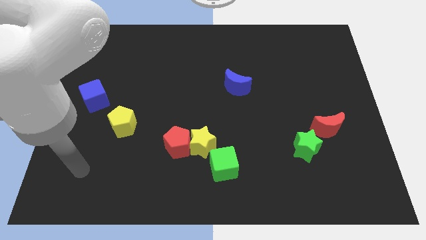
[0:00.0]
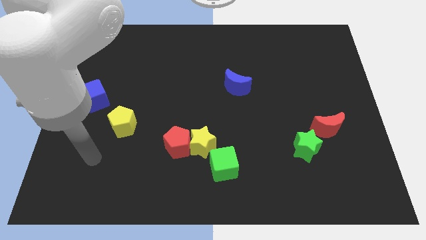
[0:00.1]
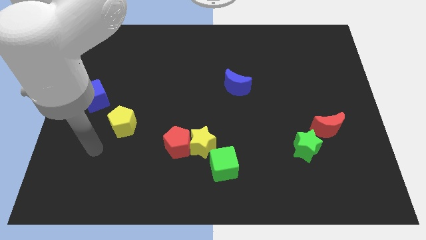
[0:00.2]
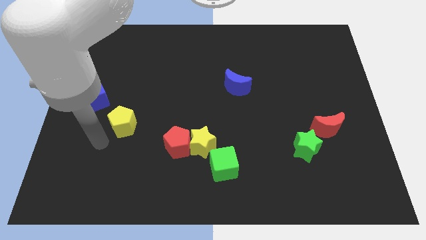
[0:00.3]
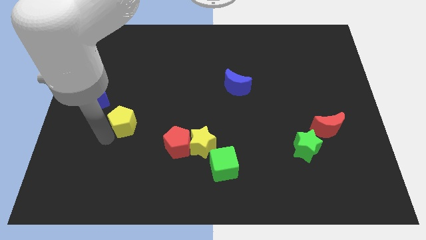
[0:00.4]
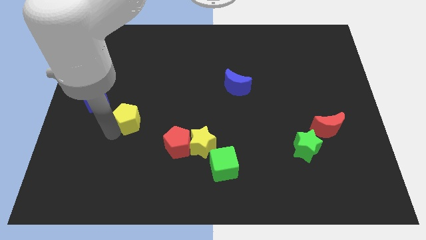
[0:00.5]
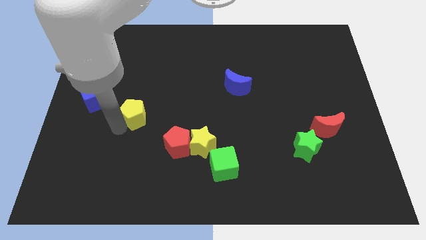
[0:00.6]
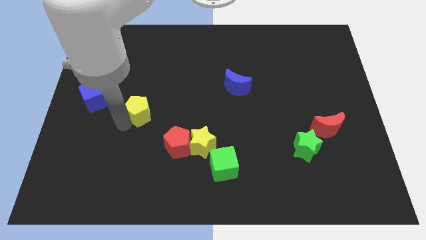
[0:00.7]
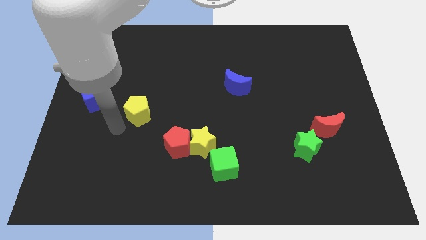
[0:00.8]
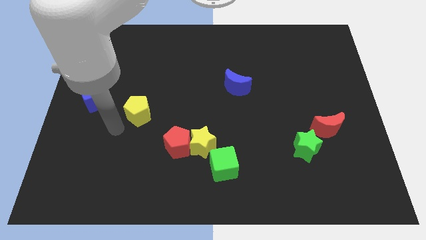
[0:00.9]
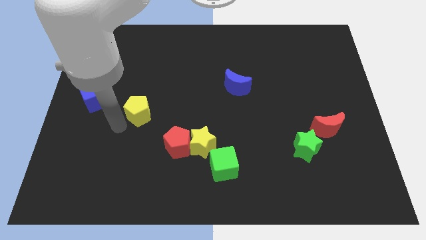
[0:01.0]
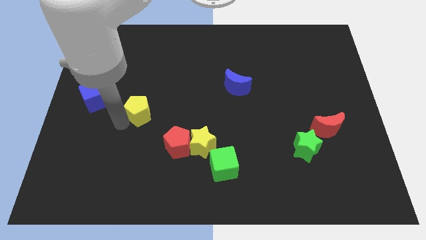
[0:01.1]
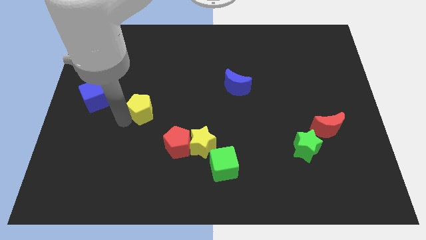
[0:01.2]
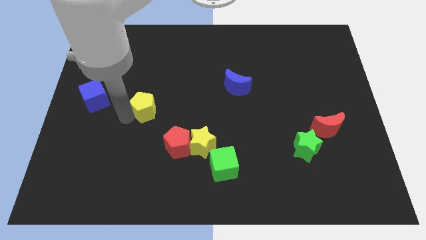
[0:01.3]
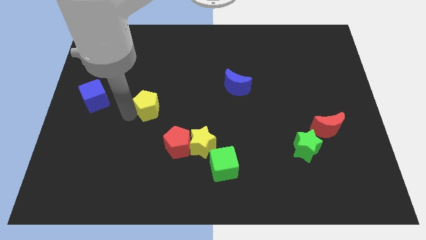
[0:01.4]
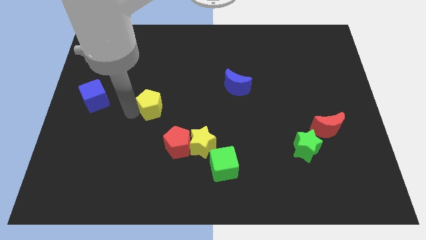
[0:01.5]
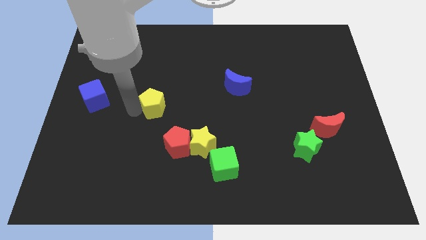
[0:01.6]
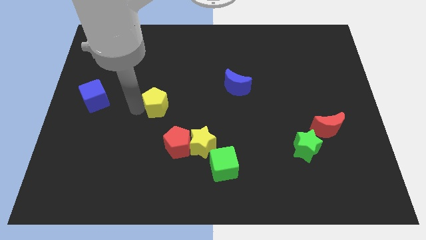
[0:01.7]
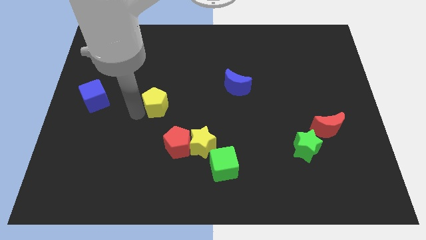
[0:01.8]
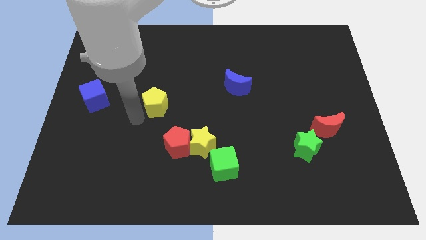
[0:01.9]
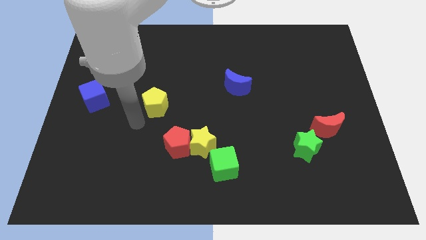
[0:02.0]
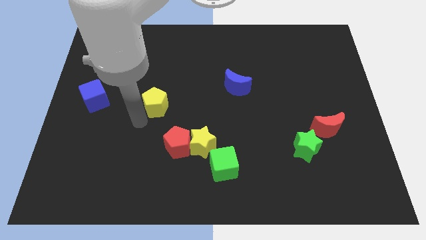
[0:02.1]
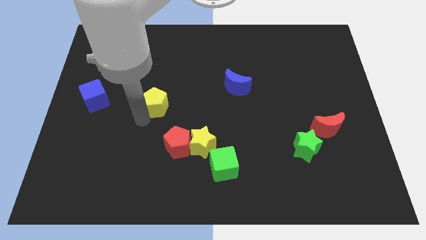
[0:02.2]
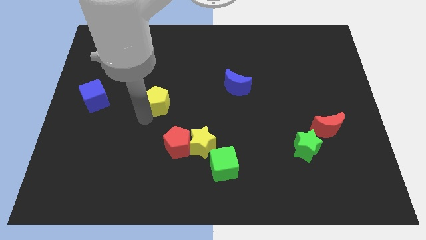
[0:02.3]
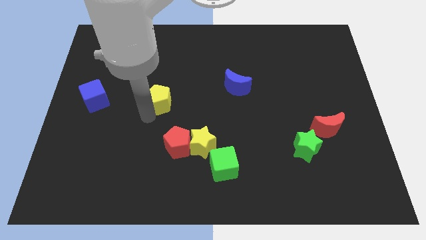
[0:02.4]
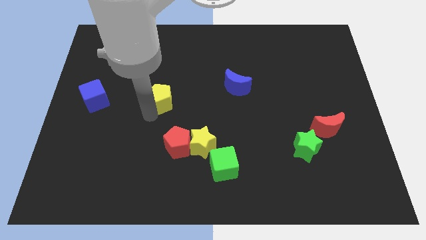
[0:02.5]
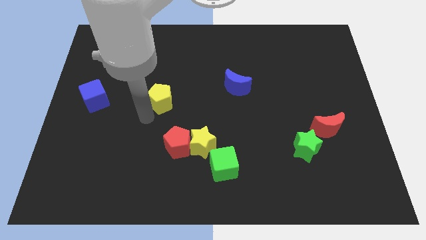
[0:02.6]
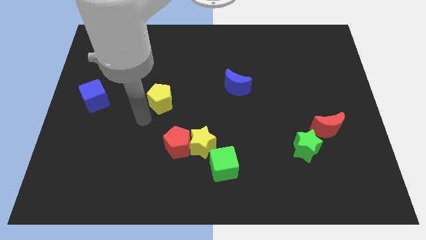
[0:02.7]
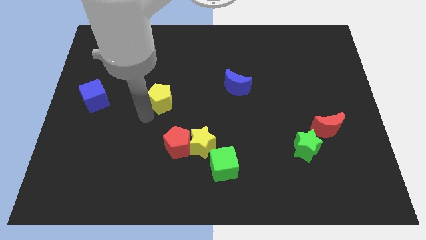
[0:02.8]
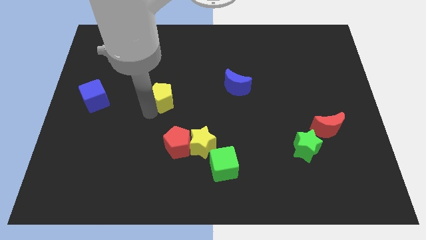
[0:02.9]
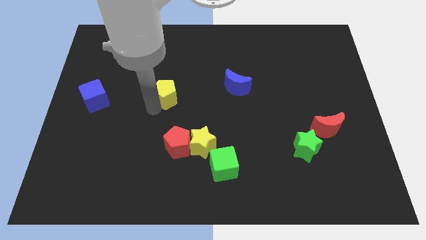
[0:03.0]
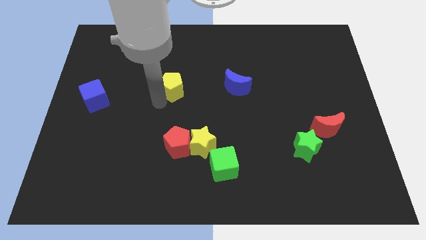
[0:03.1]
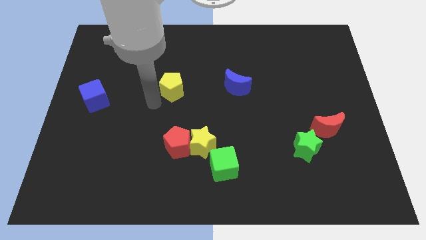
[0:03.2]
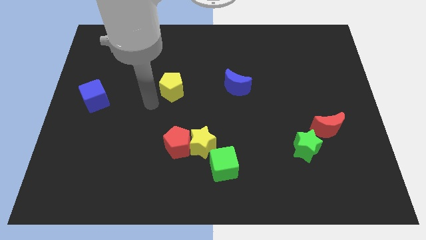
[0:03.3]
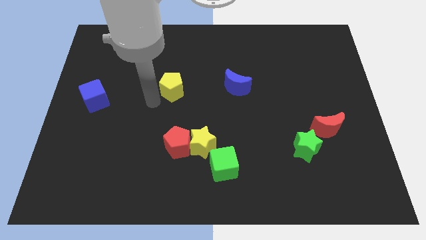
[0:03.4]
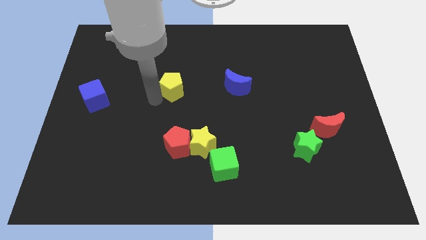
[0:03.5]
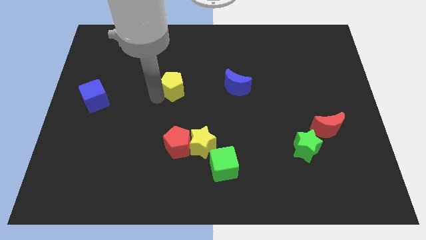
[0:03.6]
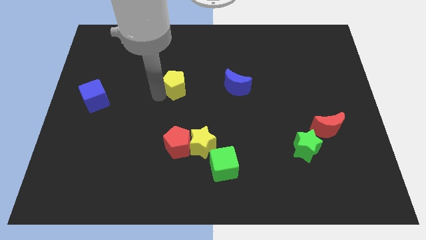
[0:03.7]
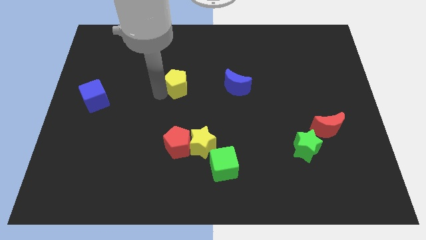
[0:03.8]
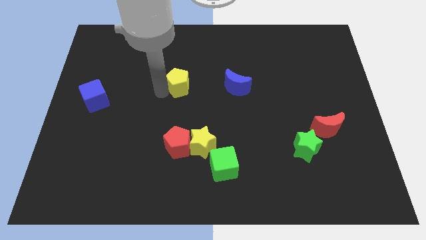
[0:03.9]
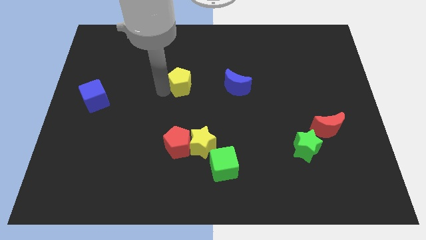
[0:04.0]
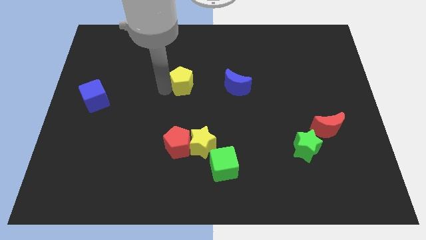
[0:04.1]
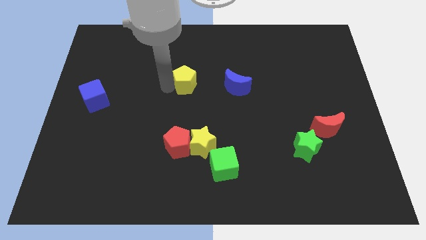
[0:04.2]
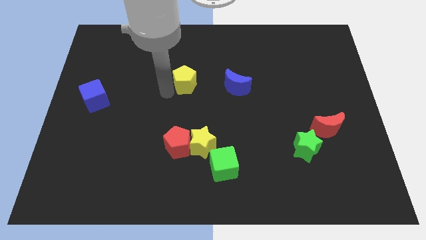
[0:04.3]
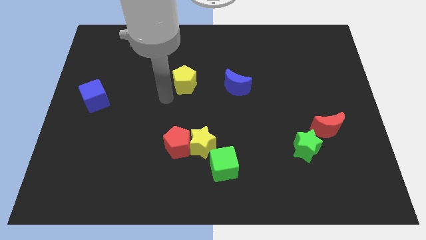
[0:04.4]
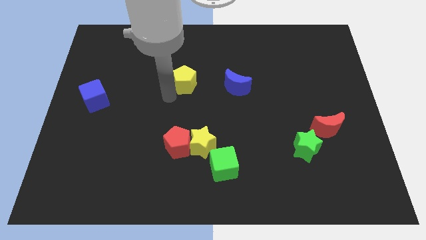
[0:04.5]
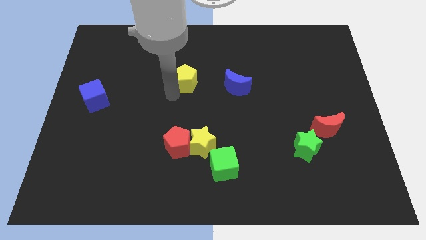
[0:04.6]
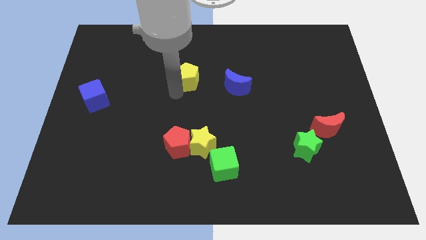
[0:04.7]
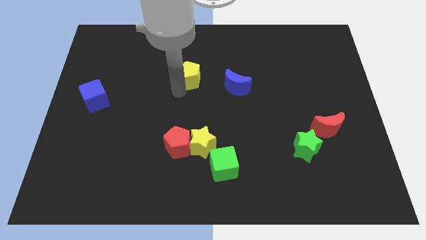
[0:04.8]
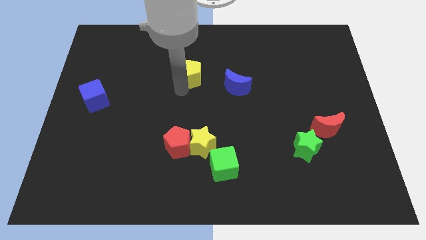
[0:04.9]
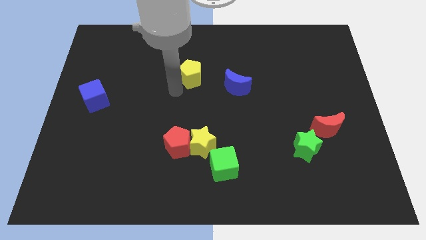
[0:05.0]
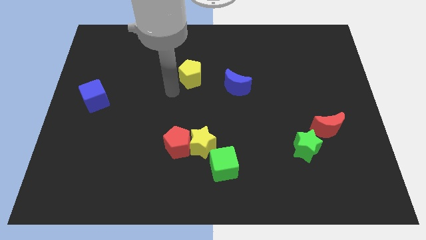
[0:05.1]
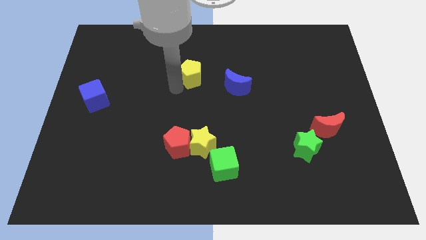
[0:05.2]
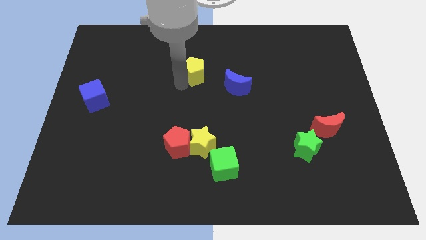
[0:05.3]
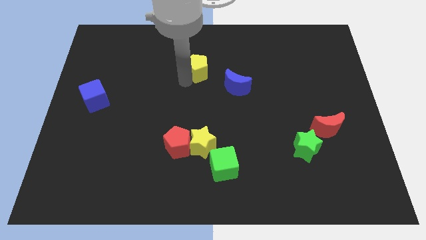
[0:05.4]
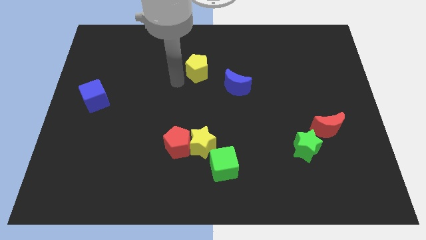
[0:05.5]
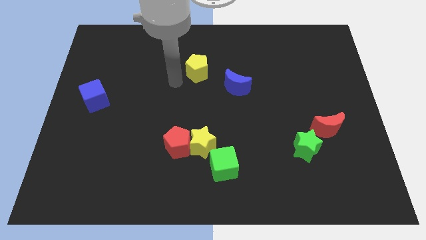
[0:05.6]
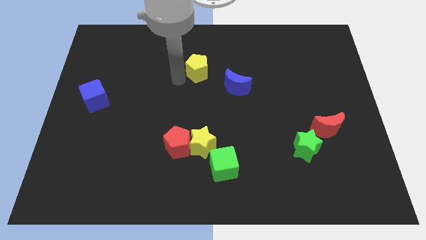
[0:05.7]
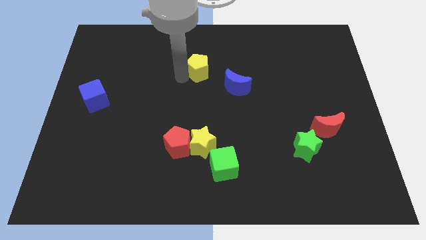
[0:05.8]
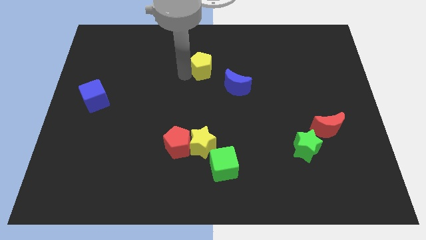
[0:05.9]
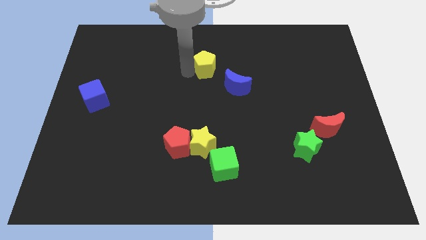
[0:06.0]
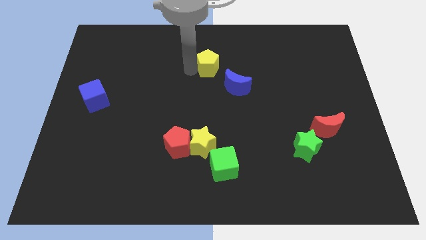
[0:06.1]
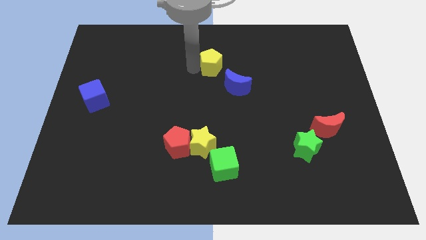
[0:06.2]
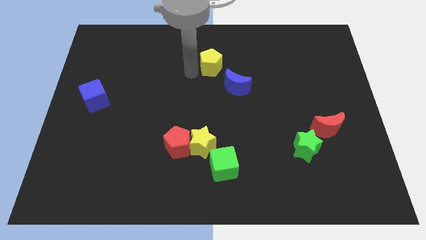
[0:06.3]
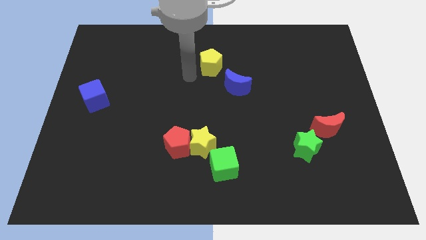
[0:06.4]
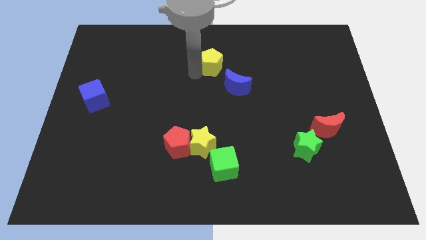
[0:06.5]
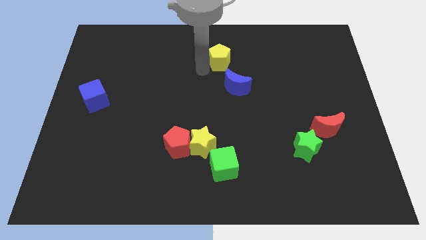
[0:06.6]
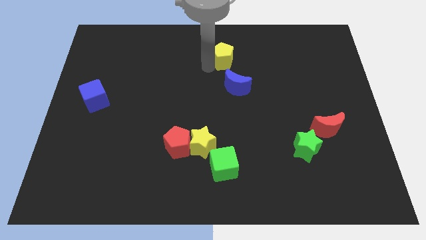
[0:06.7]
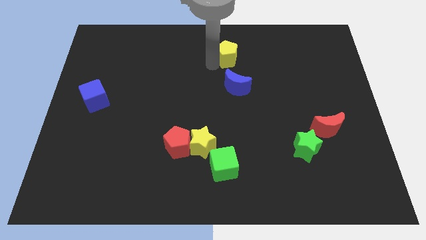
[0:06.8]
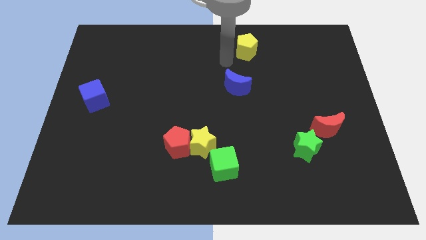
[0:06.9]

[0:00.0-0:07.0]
put the yellow pentagon to the top

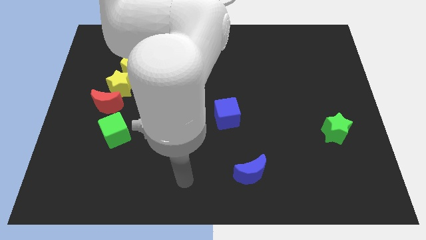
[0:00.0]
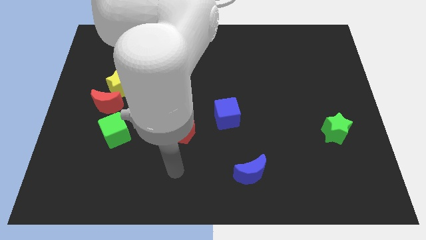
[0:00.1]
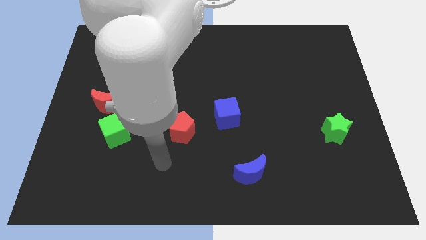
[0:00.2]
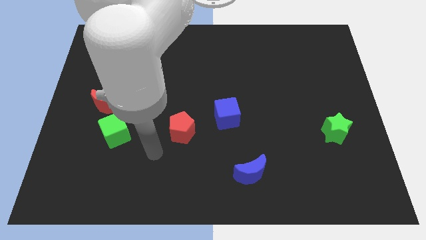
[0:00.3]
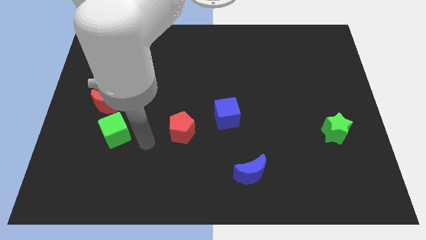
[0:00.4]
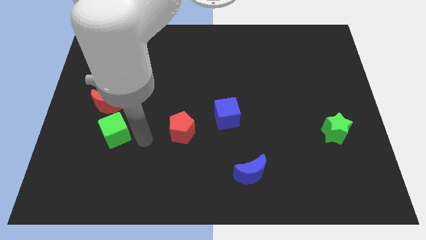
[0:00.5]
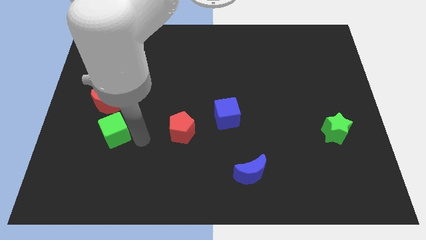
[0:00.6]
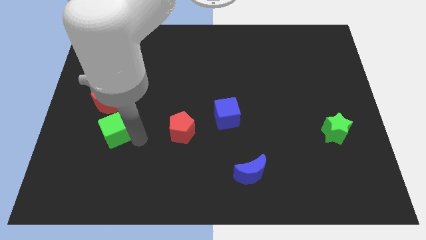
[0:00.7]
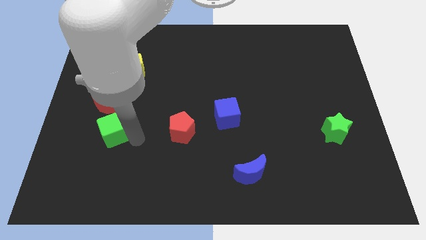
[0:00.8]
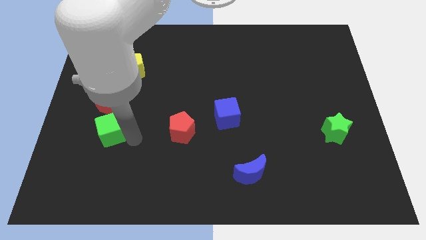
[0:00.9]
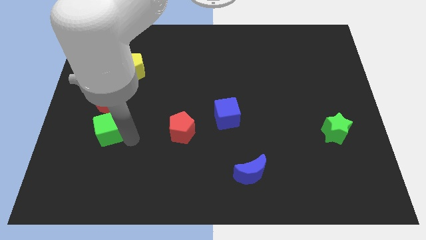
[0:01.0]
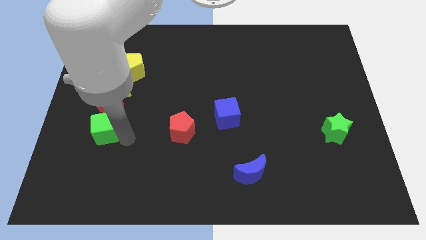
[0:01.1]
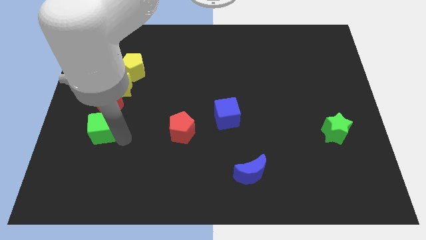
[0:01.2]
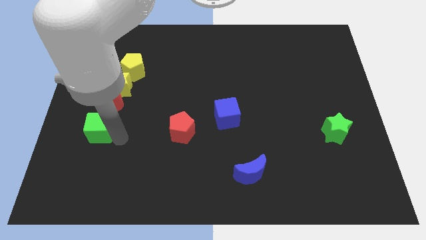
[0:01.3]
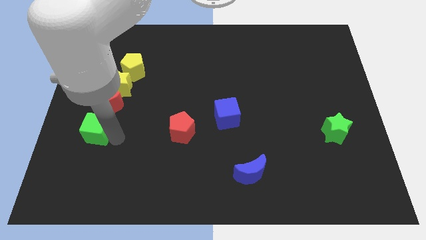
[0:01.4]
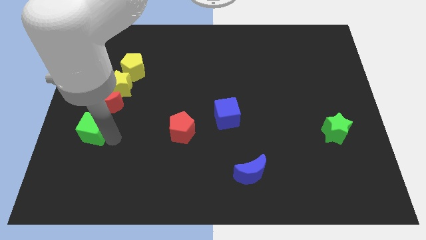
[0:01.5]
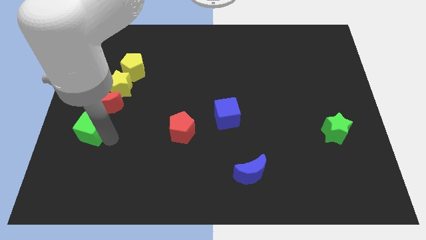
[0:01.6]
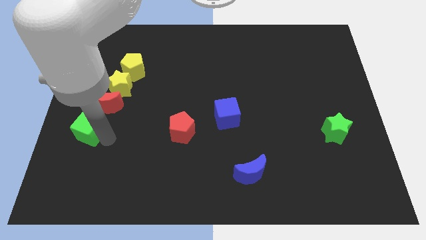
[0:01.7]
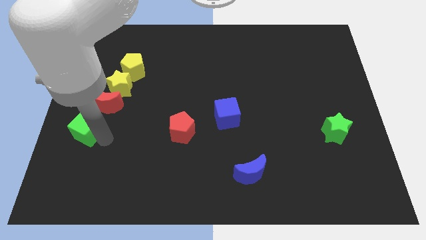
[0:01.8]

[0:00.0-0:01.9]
slide the green cube to the left side of the board
